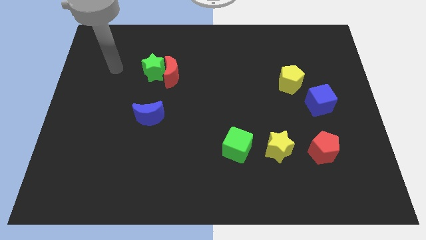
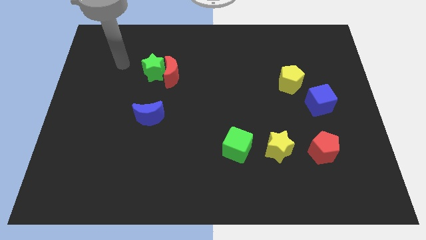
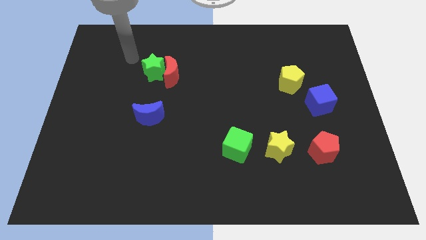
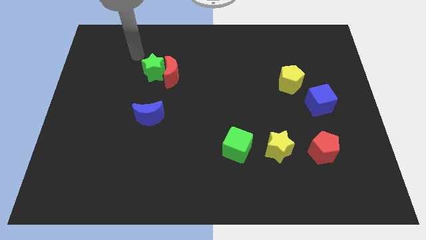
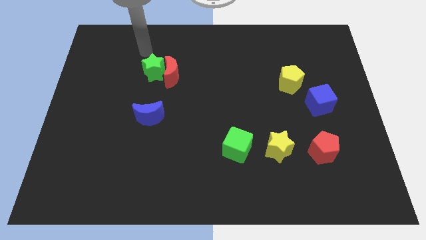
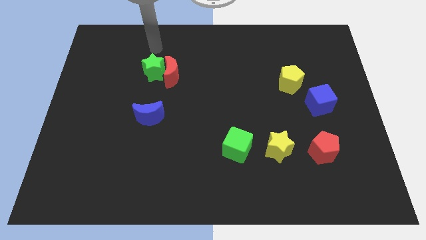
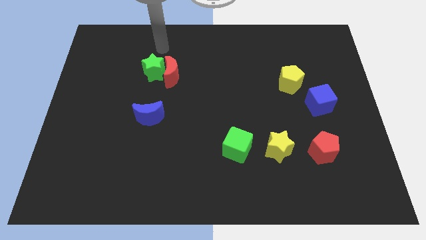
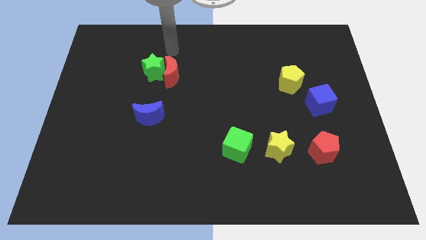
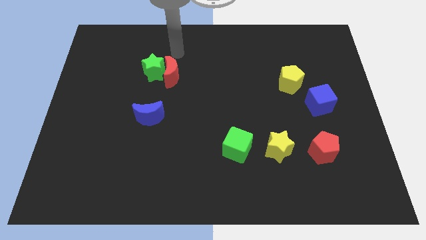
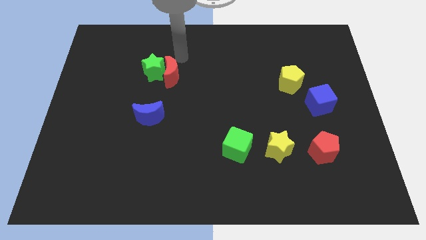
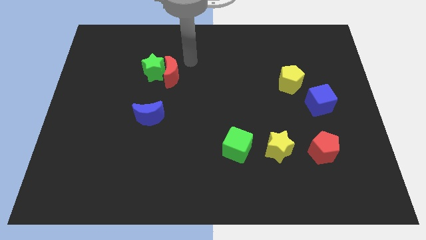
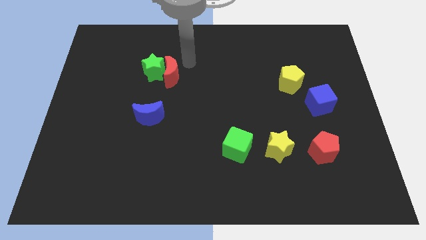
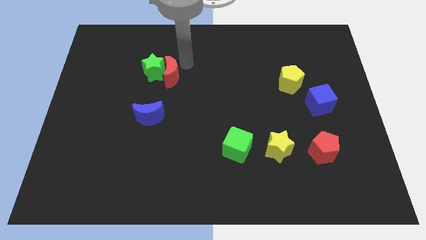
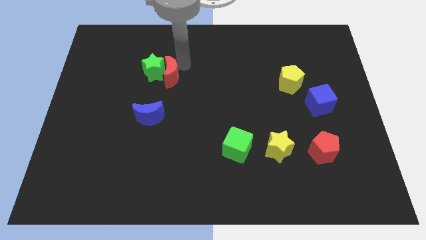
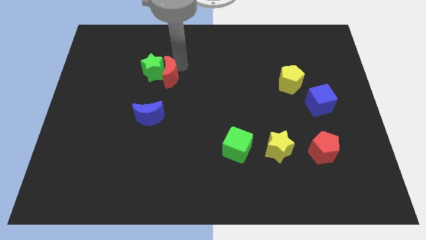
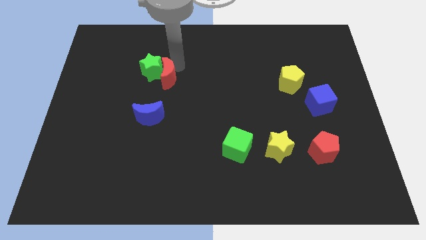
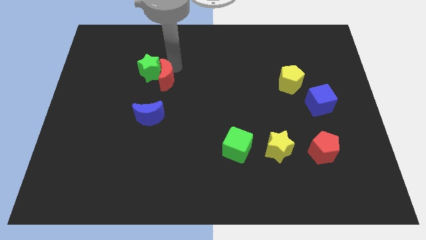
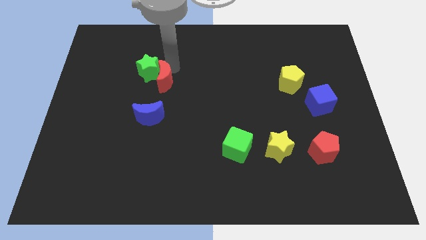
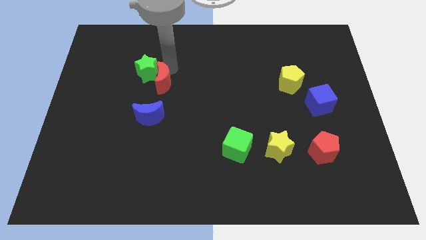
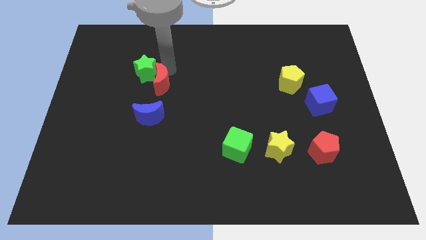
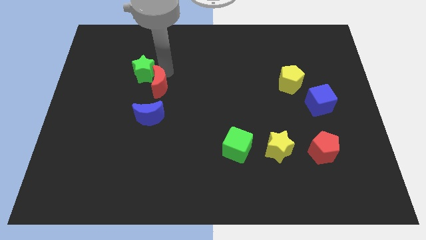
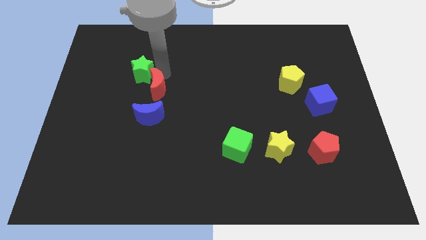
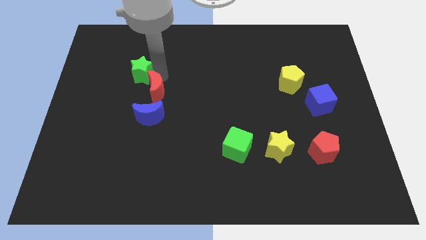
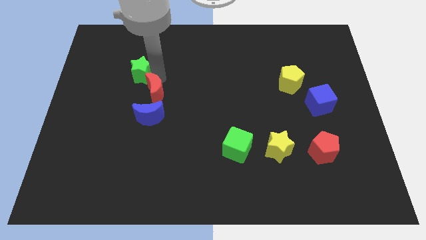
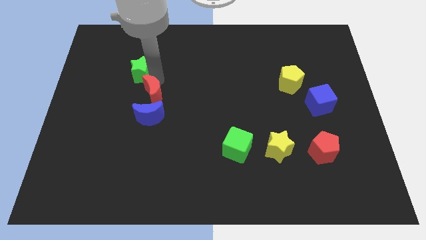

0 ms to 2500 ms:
slide the red moon downwards and left diagonally a little bit

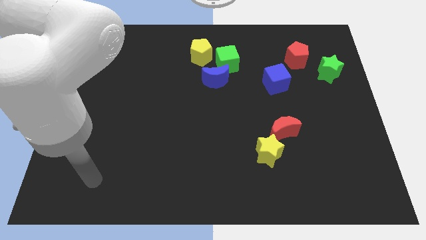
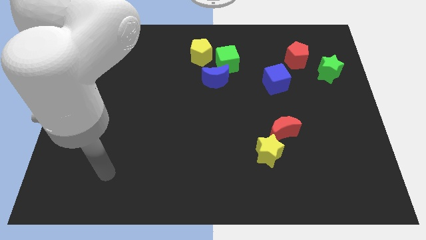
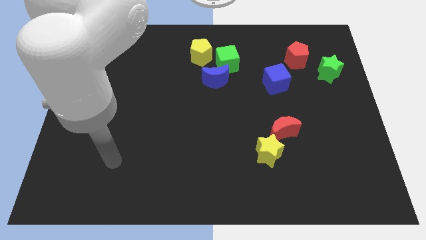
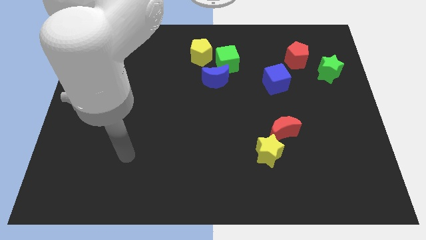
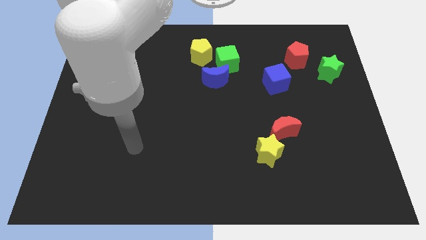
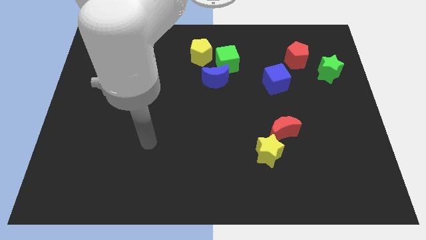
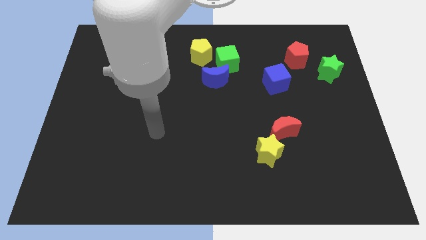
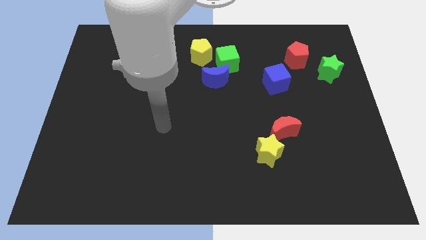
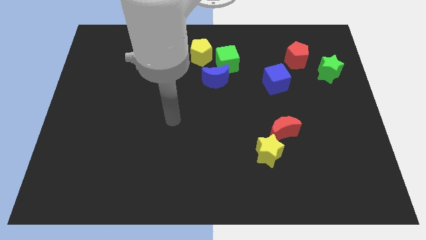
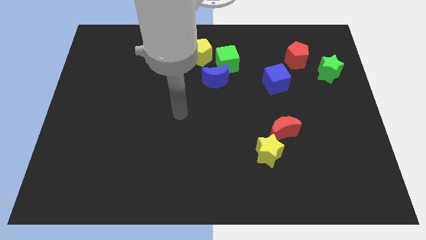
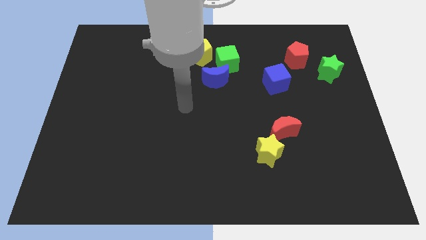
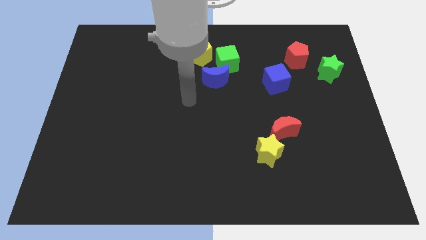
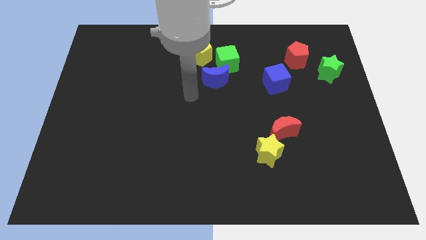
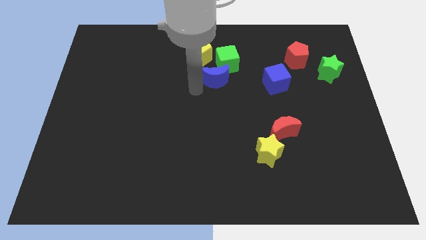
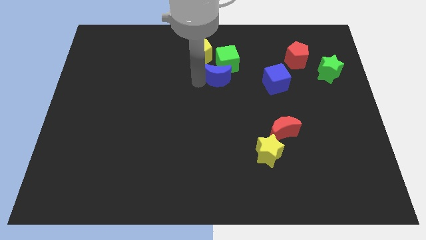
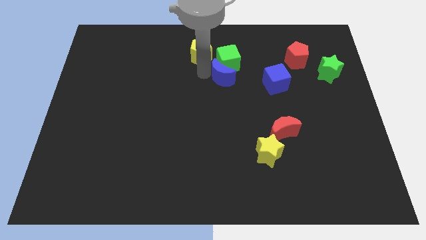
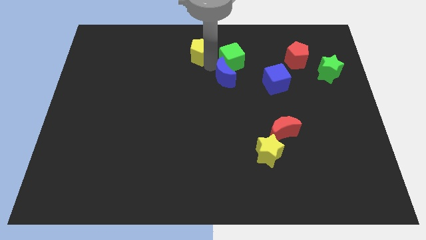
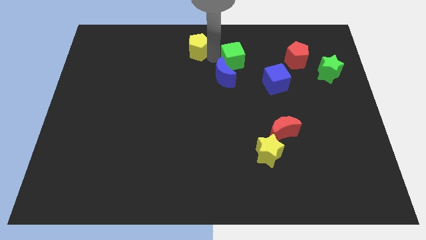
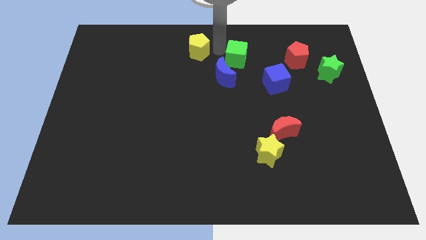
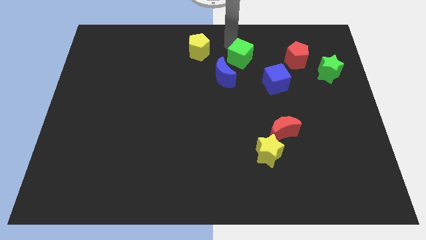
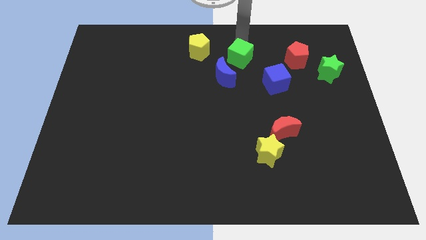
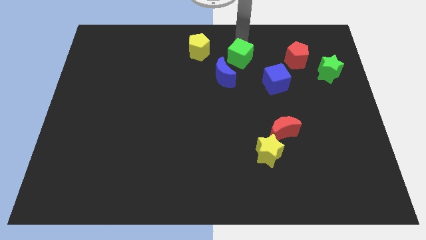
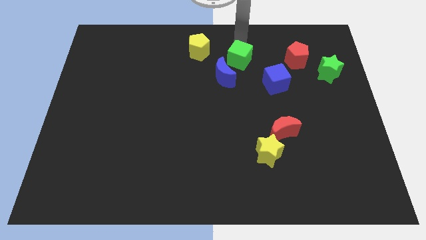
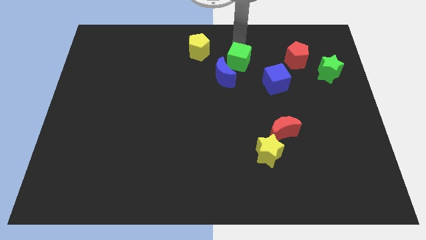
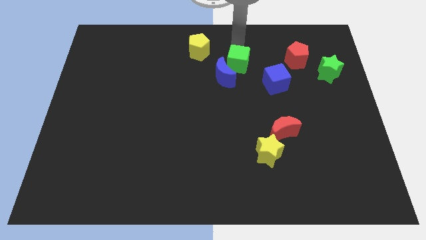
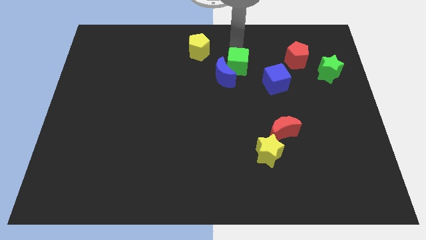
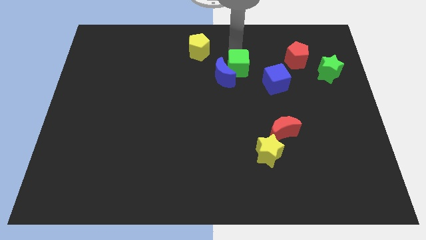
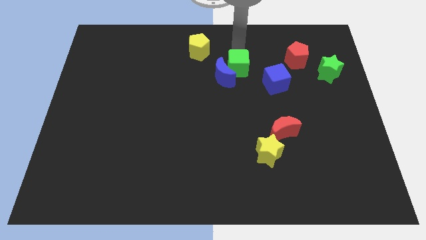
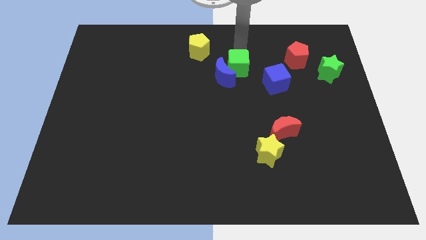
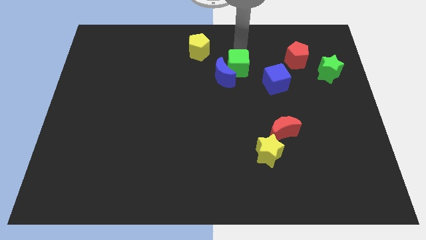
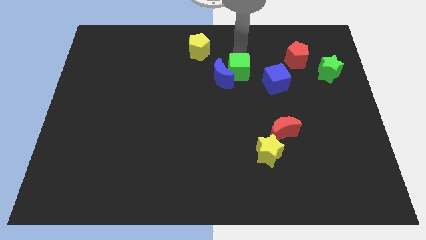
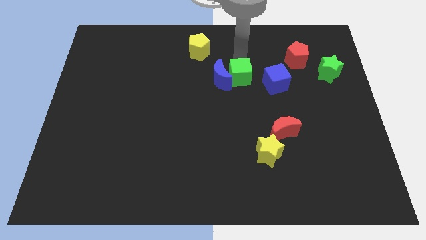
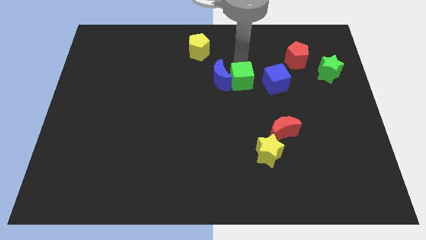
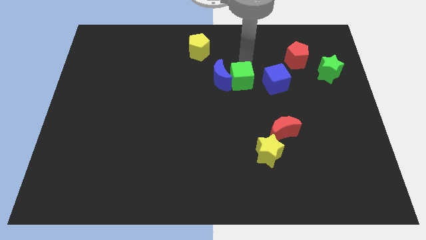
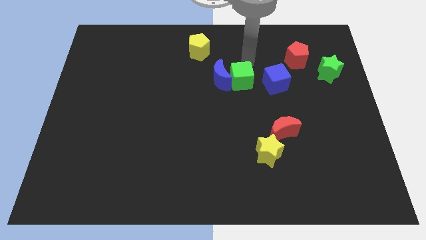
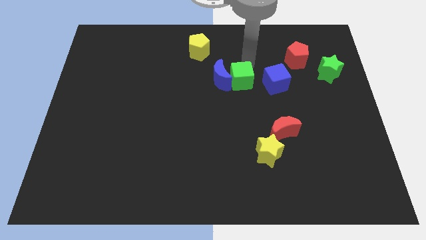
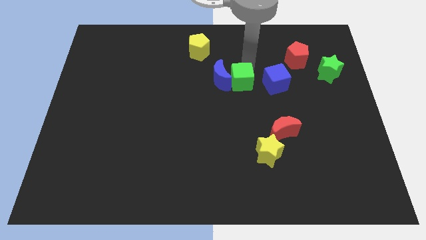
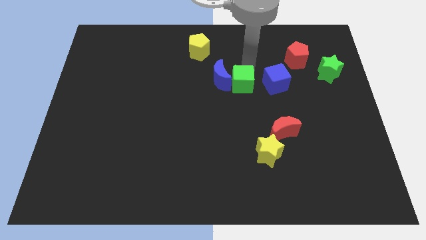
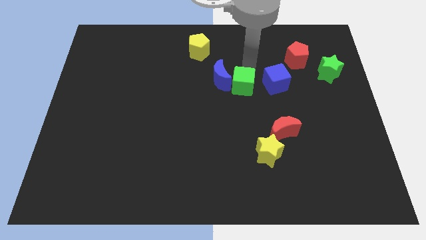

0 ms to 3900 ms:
push the green cube downwards a little

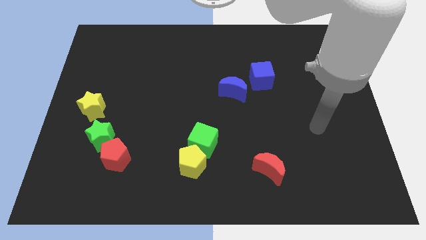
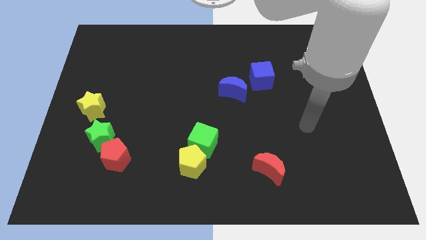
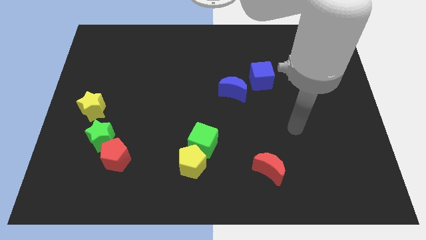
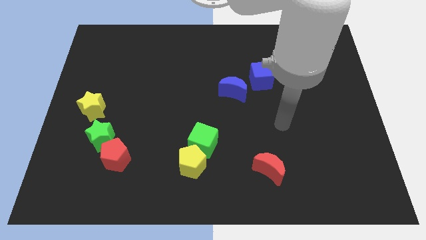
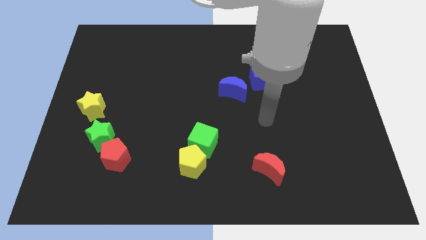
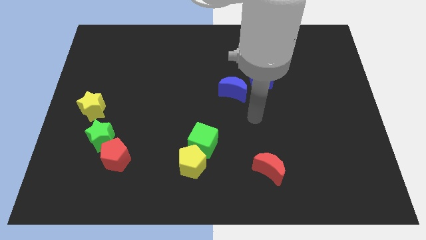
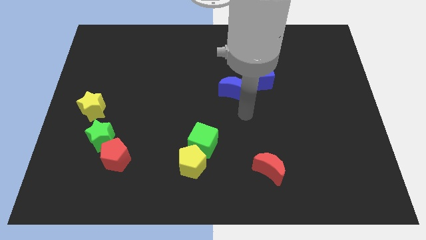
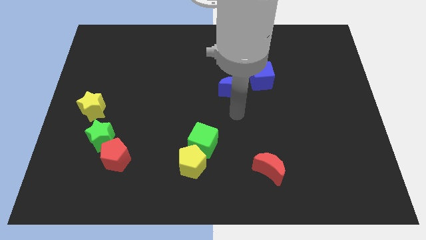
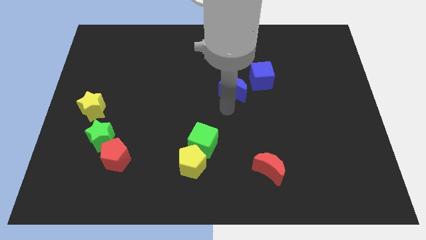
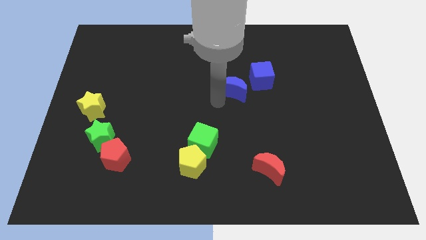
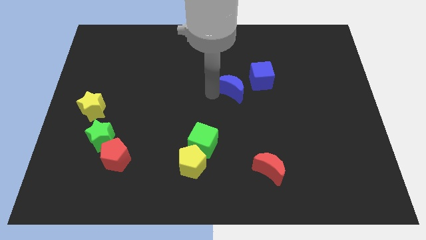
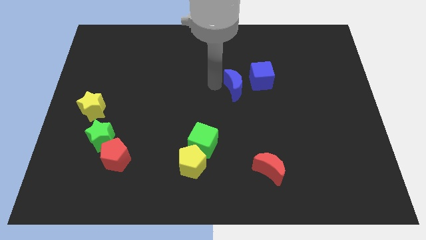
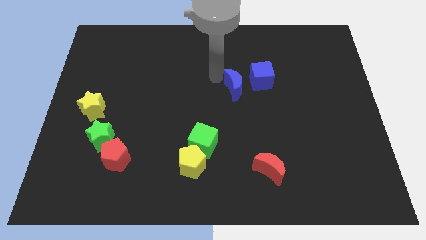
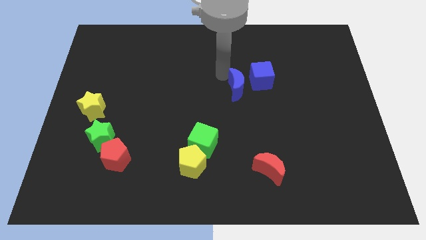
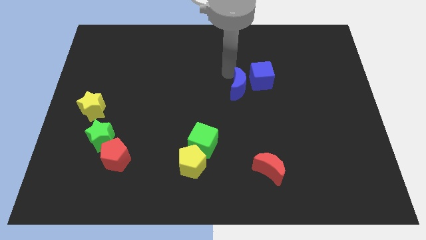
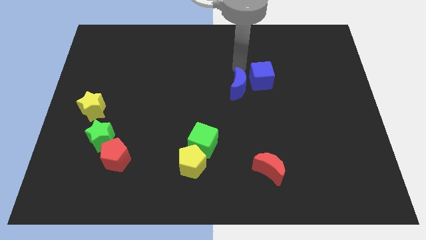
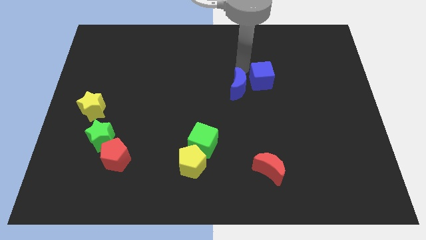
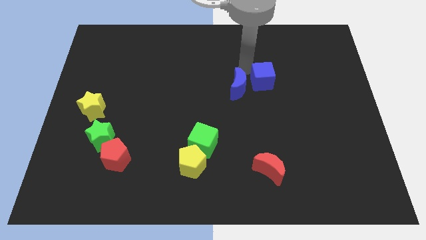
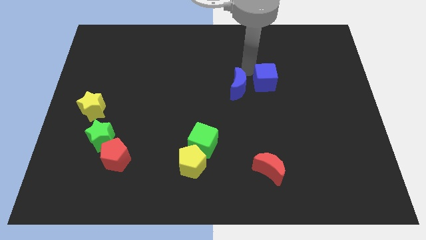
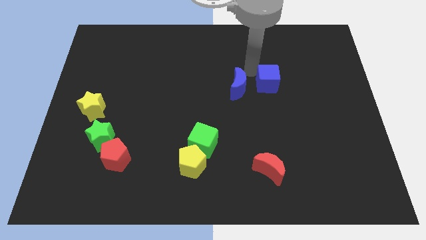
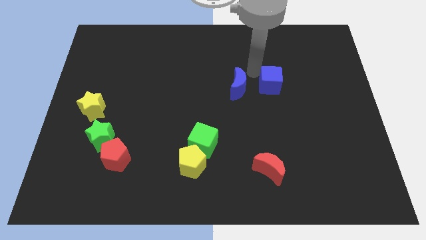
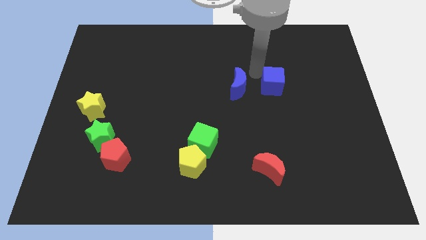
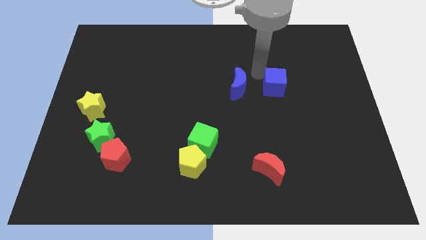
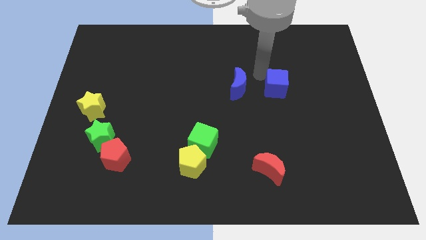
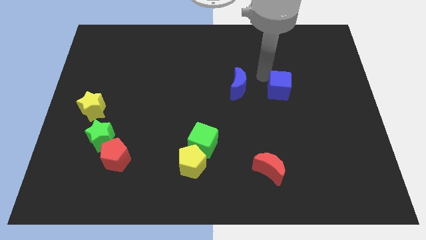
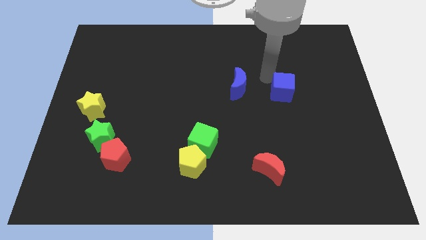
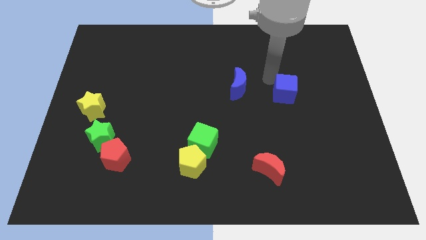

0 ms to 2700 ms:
slide the blue cube a little bit down and right diagonally
